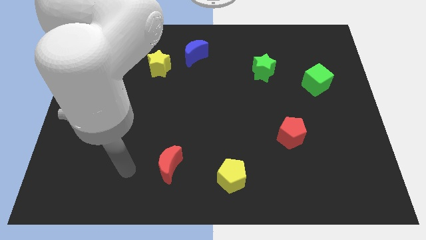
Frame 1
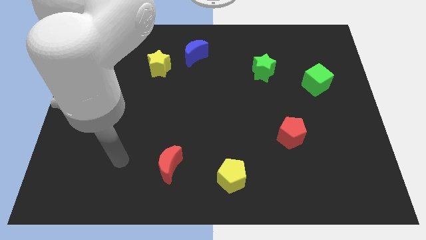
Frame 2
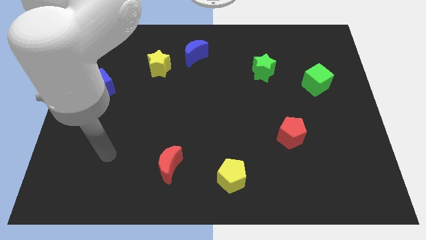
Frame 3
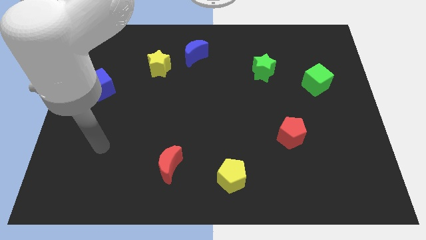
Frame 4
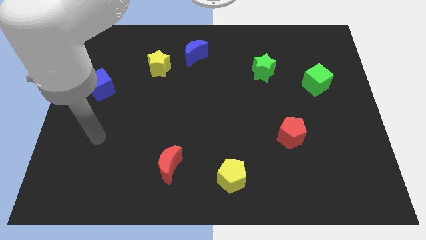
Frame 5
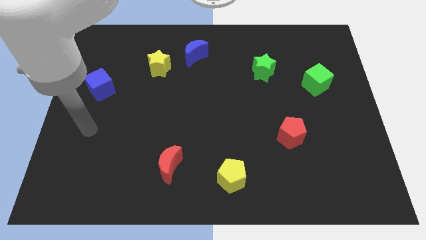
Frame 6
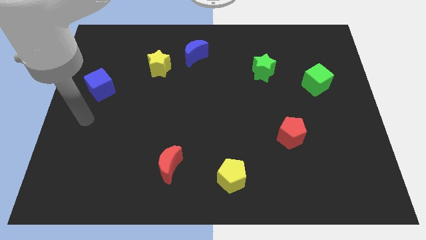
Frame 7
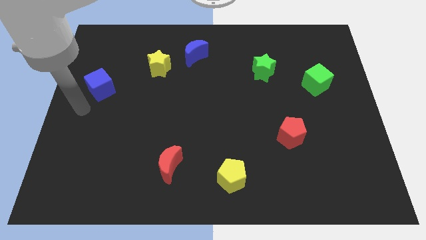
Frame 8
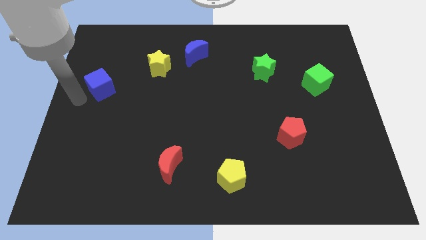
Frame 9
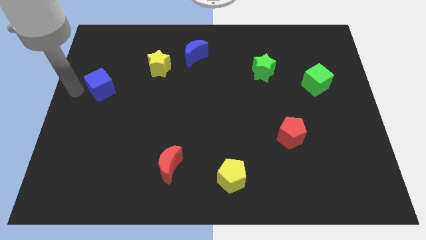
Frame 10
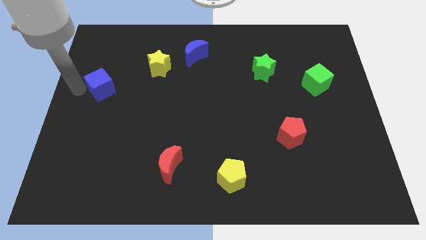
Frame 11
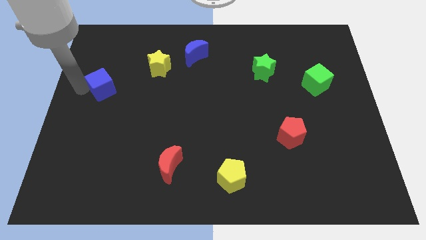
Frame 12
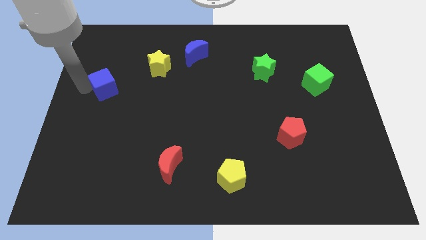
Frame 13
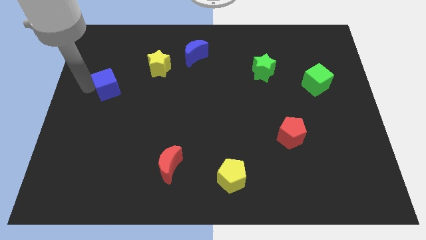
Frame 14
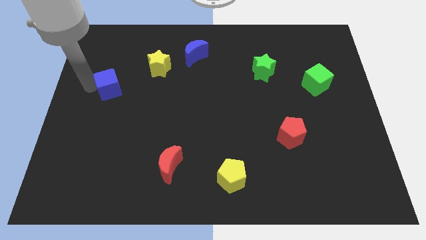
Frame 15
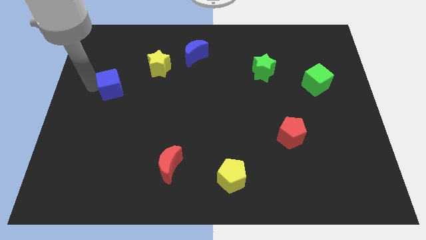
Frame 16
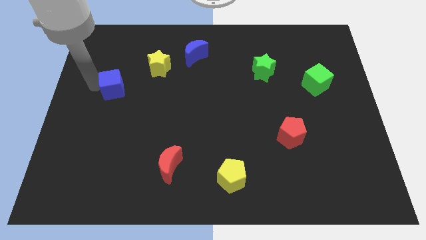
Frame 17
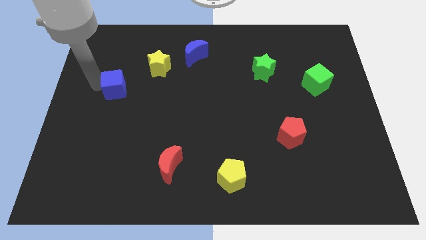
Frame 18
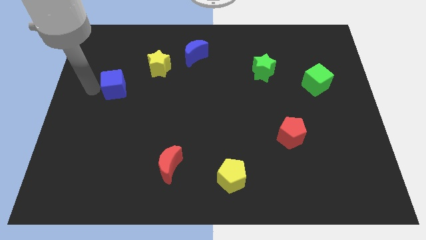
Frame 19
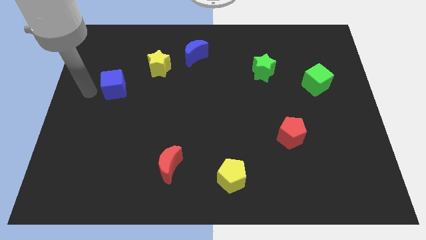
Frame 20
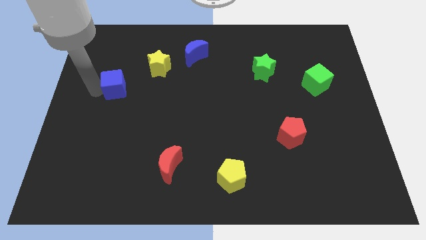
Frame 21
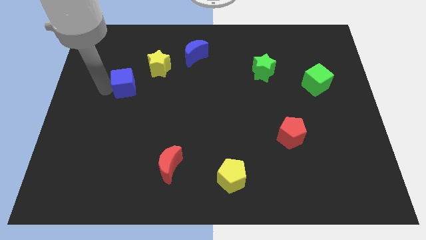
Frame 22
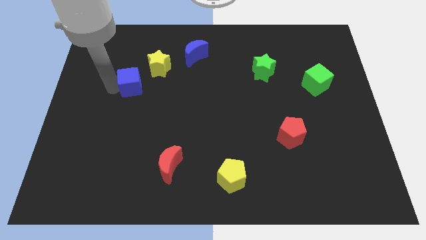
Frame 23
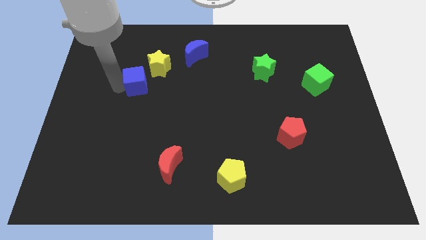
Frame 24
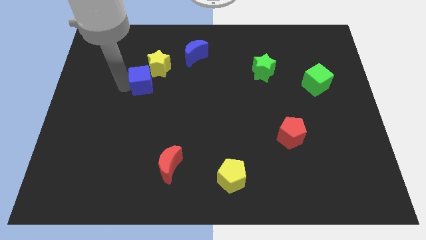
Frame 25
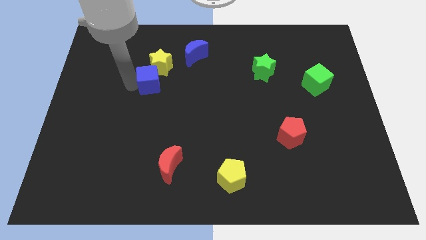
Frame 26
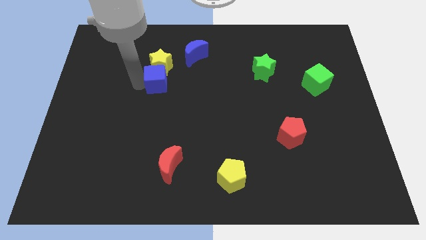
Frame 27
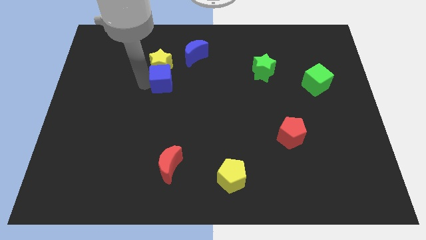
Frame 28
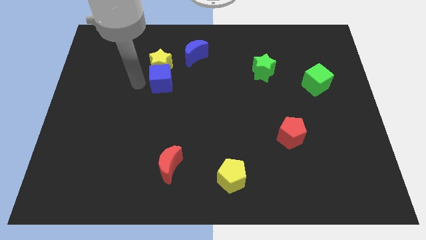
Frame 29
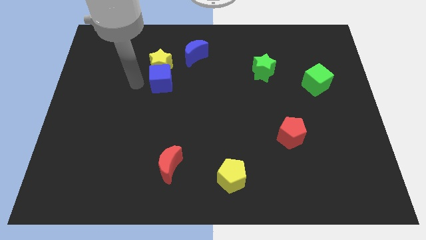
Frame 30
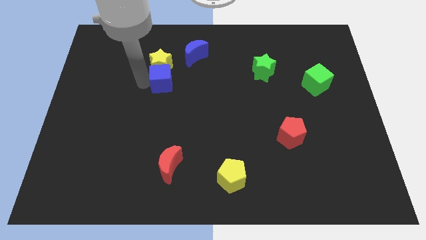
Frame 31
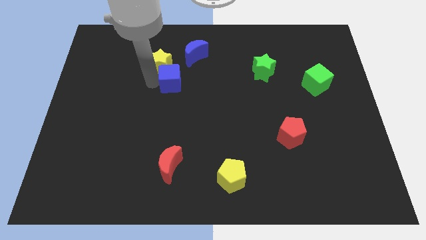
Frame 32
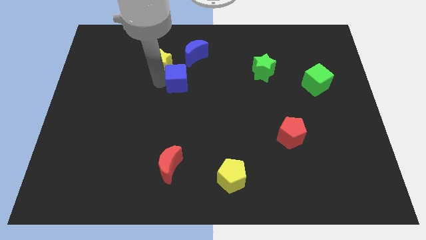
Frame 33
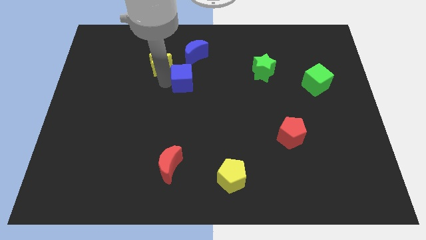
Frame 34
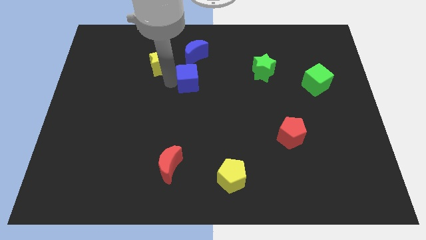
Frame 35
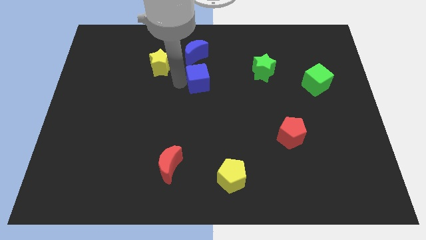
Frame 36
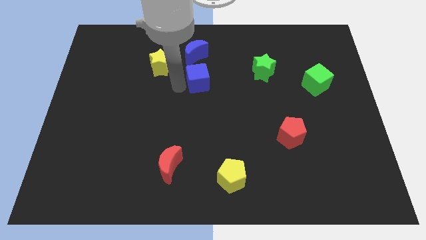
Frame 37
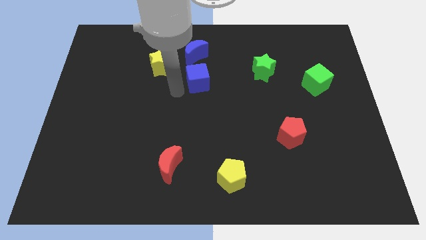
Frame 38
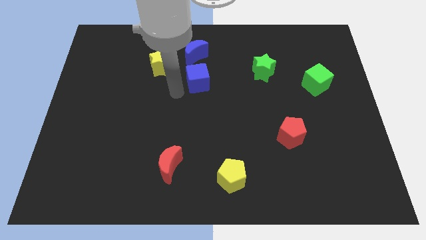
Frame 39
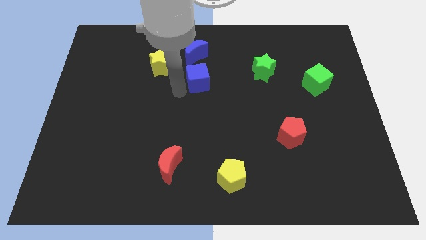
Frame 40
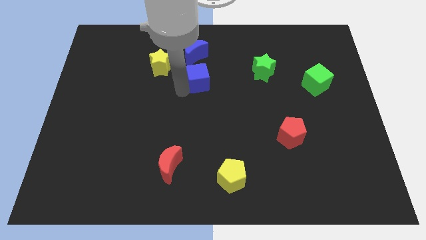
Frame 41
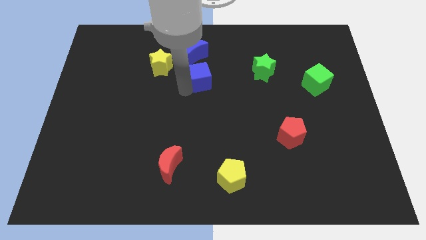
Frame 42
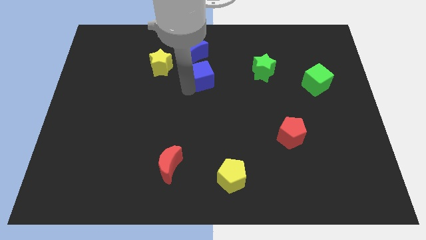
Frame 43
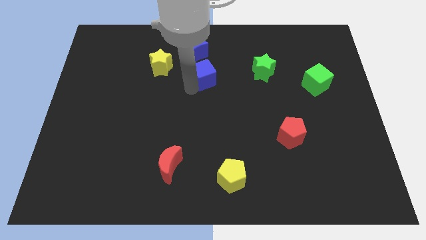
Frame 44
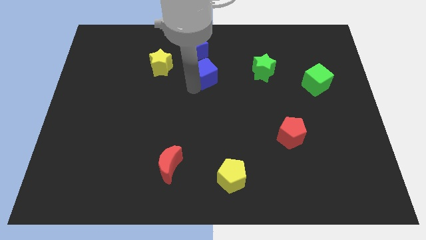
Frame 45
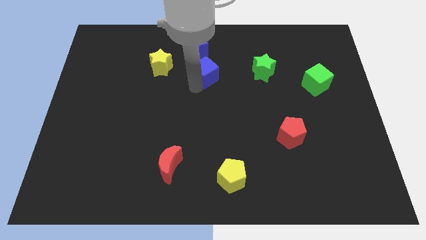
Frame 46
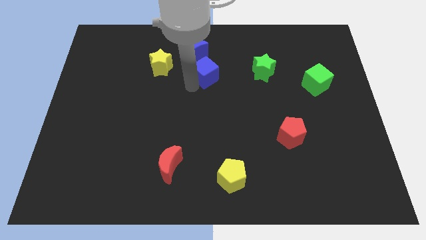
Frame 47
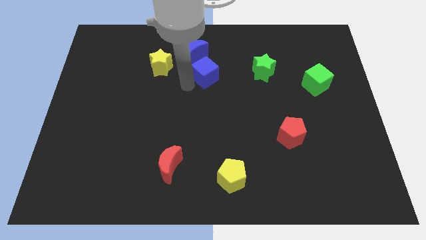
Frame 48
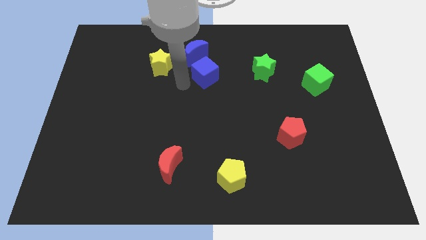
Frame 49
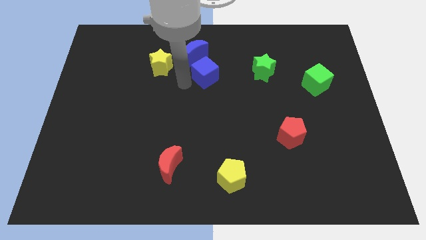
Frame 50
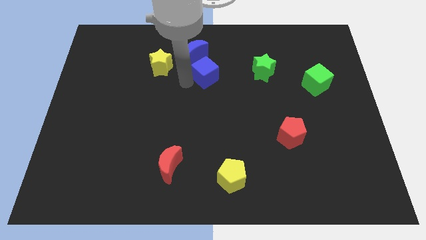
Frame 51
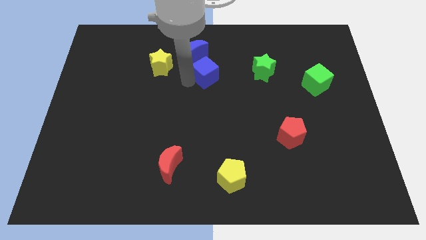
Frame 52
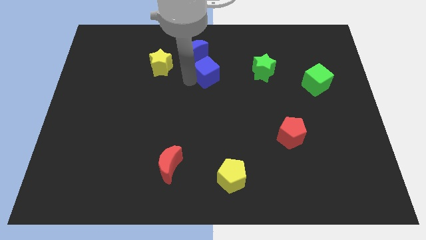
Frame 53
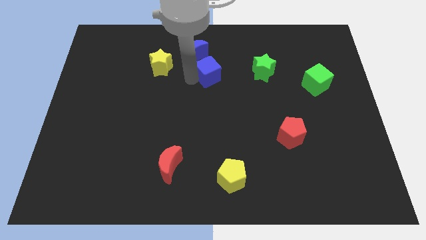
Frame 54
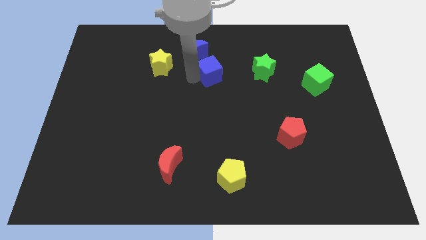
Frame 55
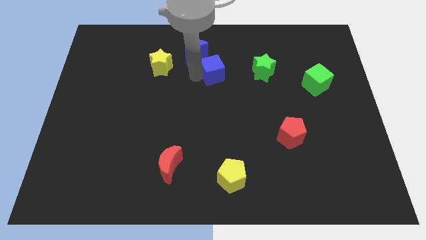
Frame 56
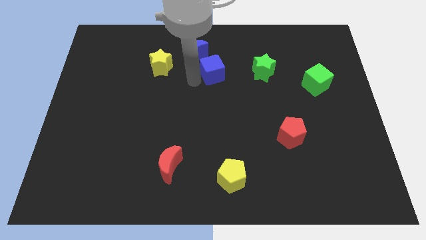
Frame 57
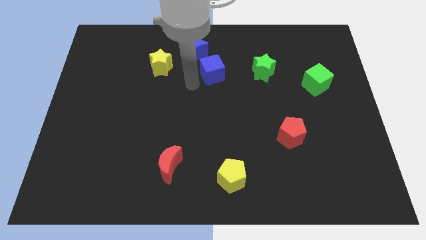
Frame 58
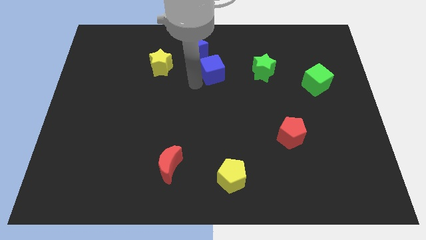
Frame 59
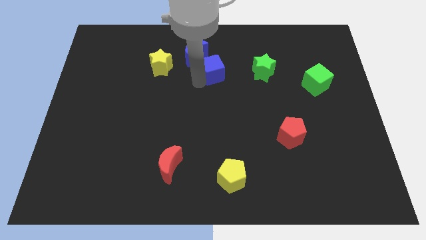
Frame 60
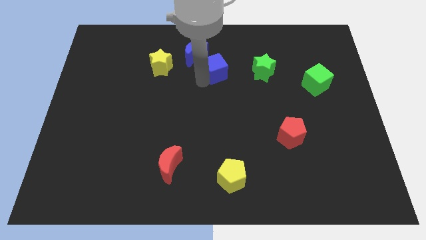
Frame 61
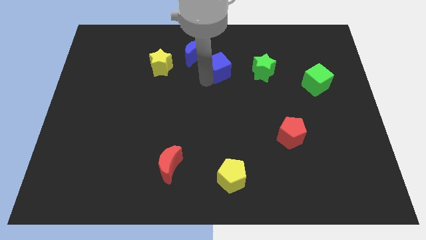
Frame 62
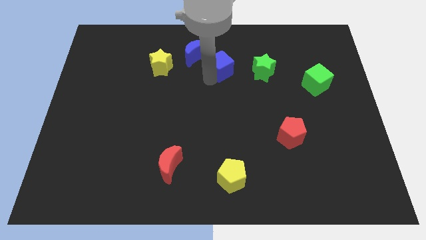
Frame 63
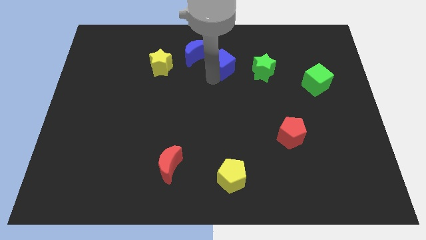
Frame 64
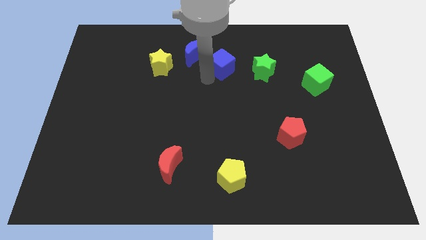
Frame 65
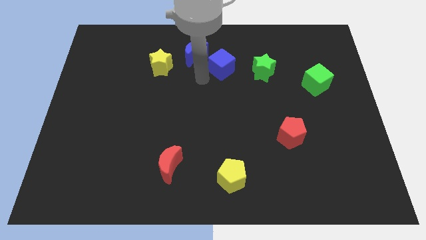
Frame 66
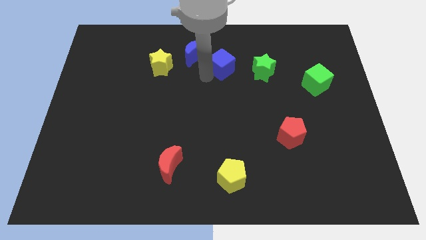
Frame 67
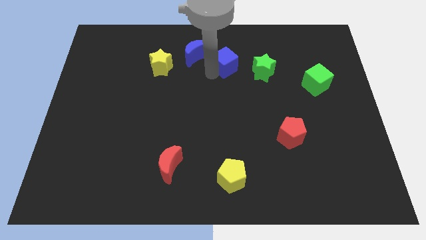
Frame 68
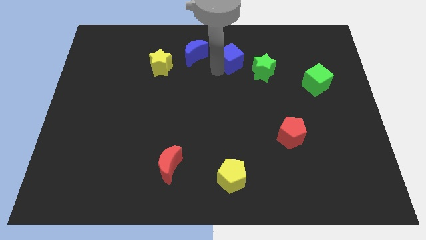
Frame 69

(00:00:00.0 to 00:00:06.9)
push the blue cube to the top left side of the green star
